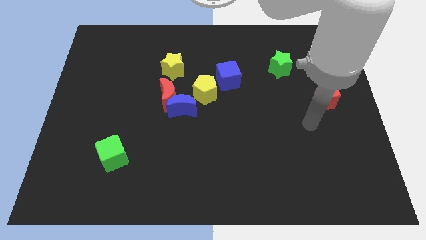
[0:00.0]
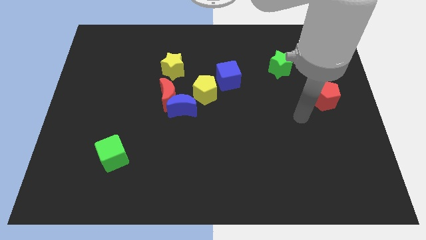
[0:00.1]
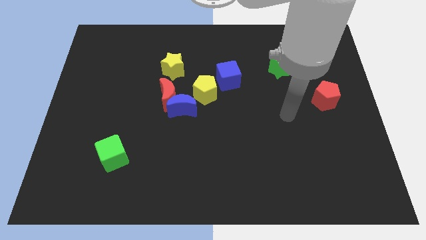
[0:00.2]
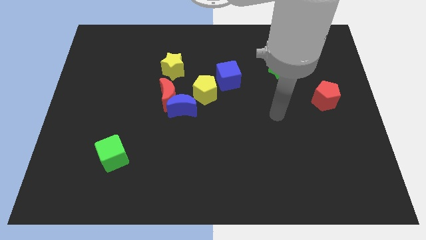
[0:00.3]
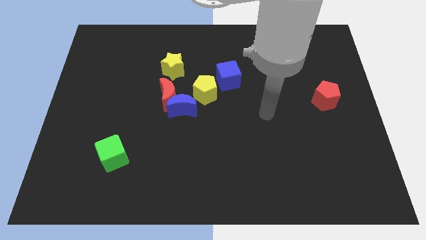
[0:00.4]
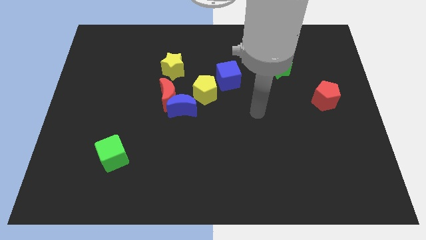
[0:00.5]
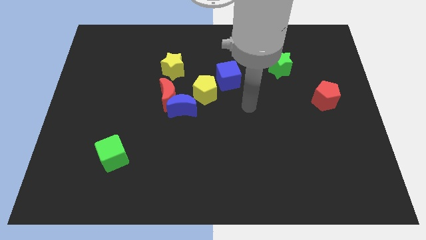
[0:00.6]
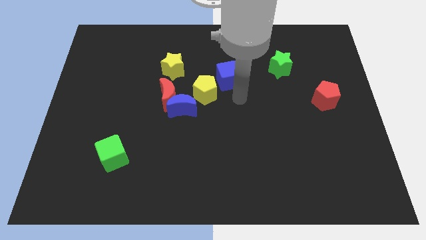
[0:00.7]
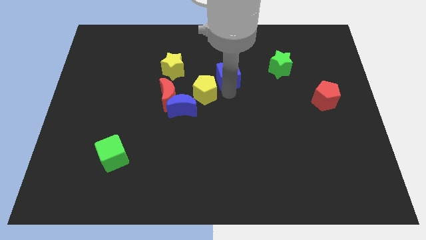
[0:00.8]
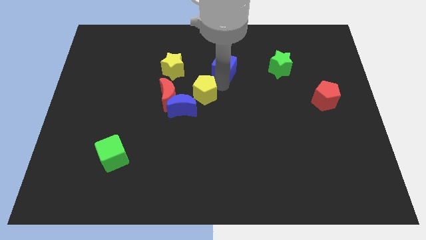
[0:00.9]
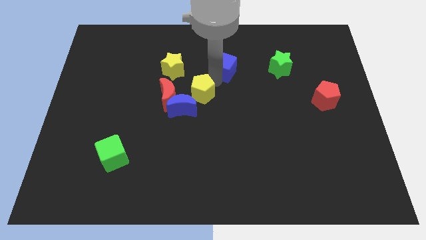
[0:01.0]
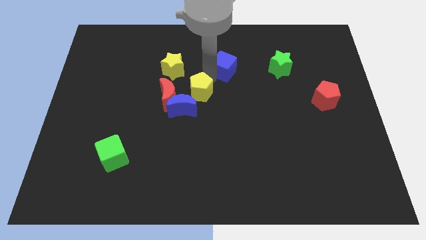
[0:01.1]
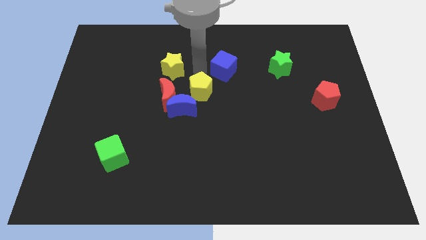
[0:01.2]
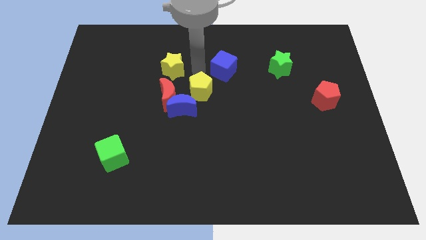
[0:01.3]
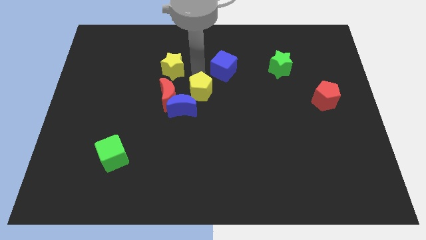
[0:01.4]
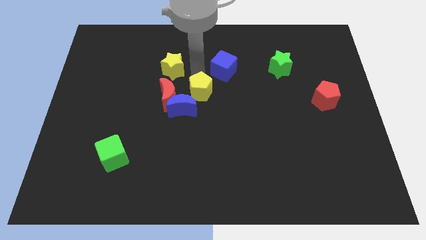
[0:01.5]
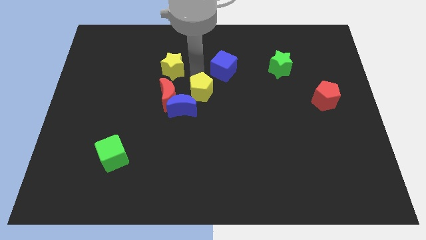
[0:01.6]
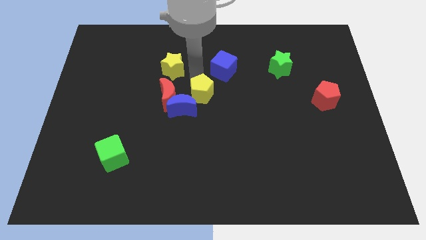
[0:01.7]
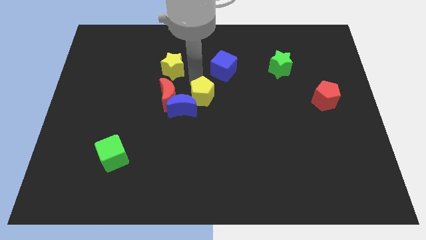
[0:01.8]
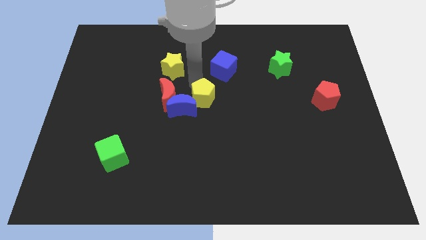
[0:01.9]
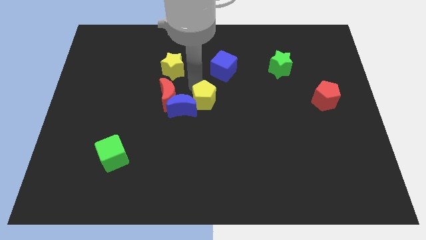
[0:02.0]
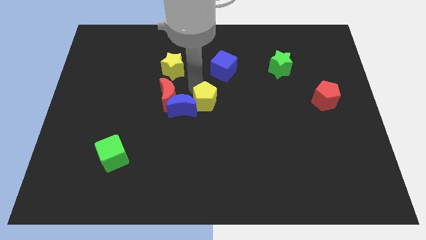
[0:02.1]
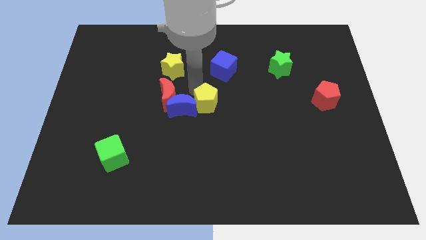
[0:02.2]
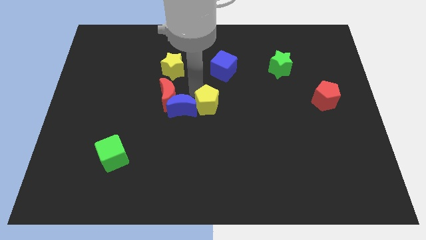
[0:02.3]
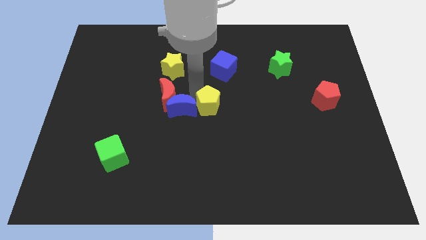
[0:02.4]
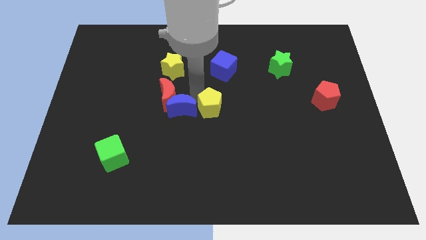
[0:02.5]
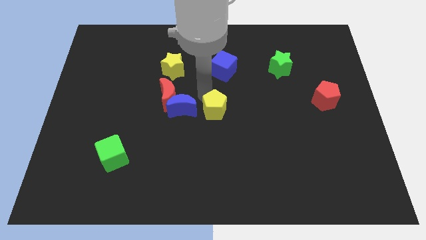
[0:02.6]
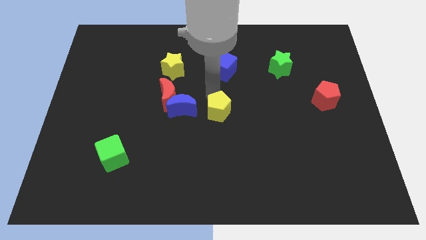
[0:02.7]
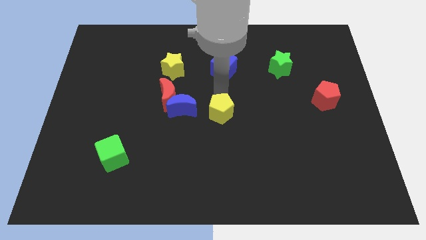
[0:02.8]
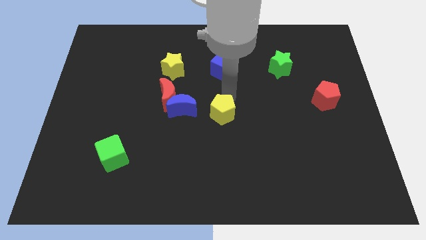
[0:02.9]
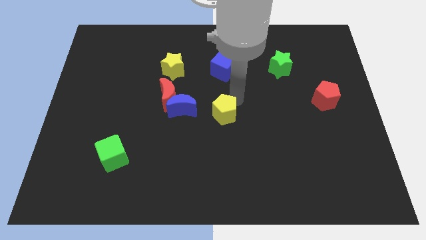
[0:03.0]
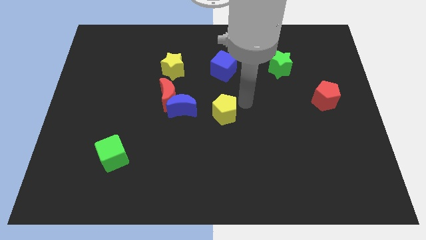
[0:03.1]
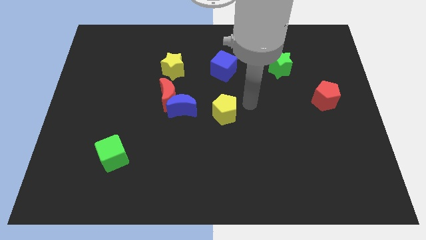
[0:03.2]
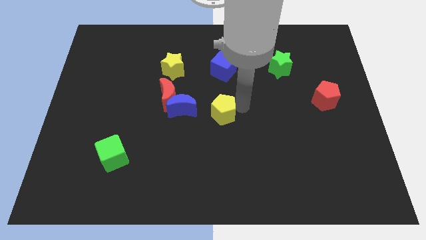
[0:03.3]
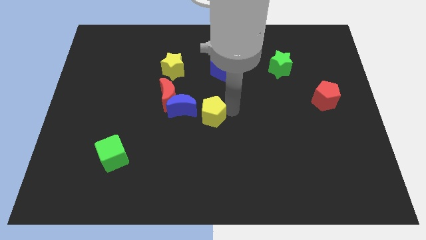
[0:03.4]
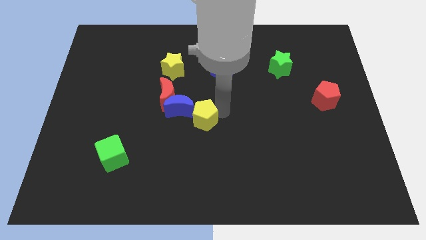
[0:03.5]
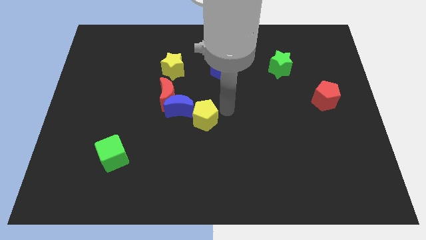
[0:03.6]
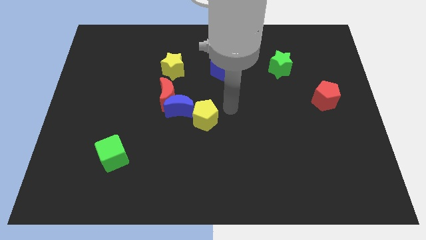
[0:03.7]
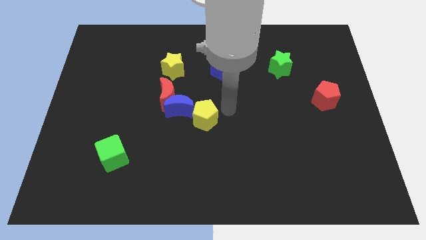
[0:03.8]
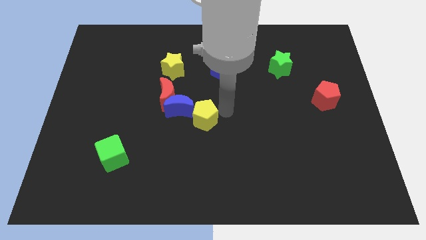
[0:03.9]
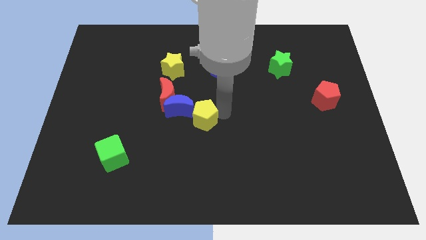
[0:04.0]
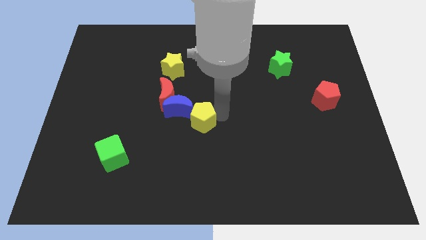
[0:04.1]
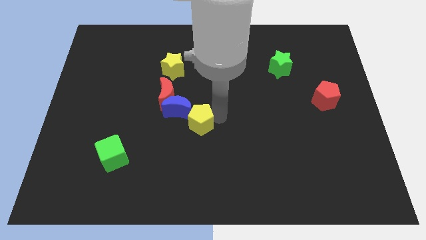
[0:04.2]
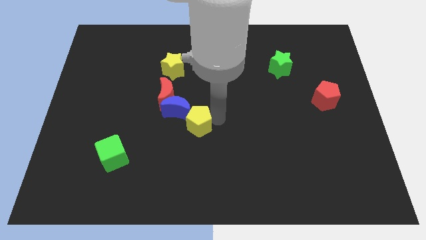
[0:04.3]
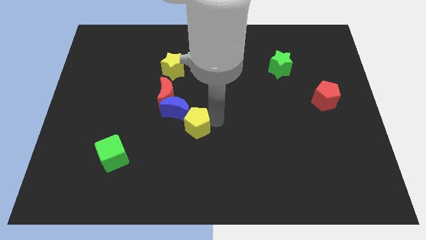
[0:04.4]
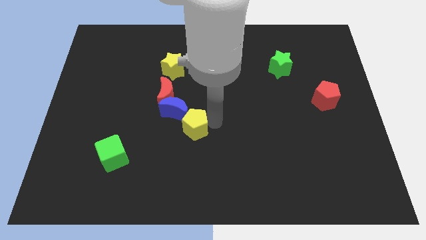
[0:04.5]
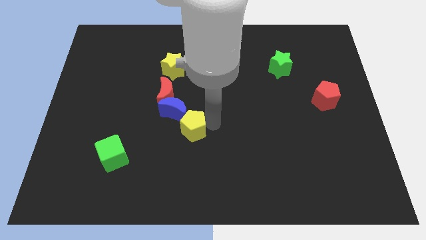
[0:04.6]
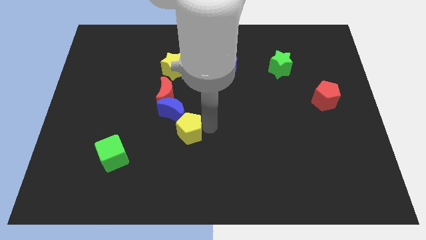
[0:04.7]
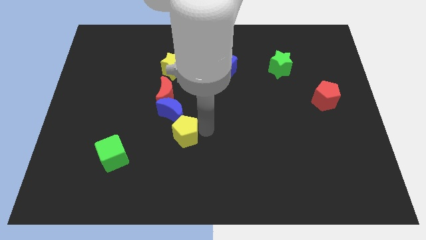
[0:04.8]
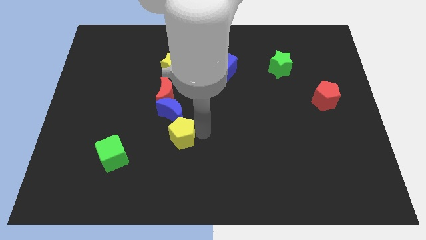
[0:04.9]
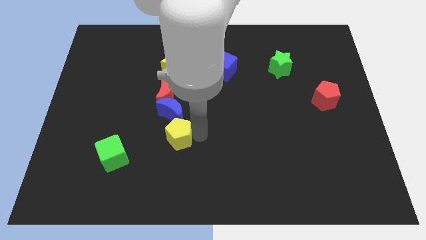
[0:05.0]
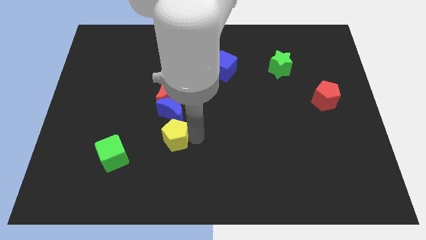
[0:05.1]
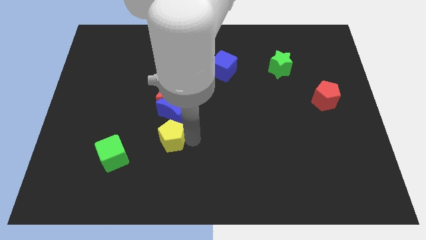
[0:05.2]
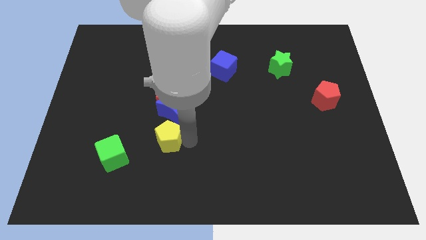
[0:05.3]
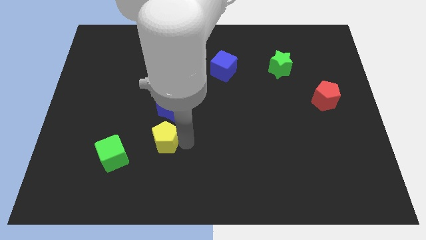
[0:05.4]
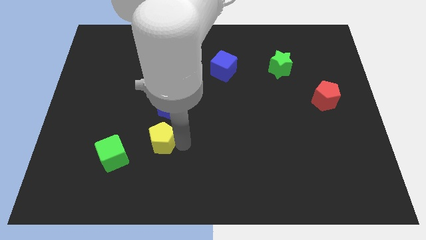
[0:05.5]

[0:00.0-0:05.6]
put the yellow pentagon diagonally up and to the right of the green cube
